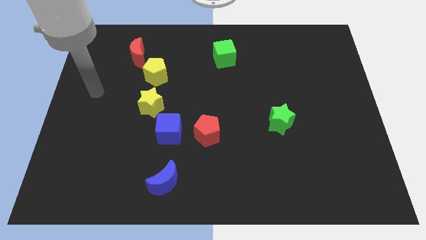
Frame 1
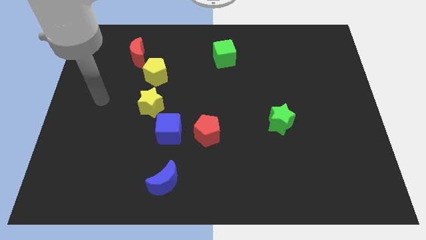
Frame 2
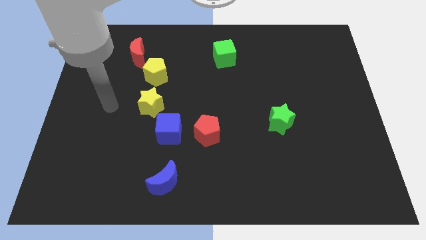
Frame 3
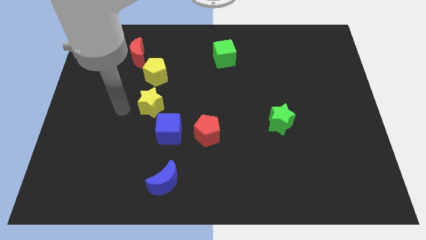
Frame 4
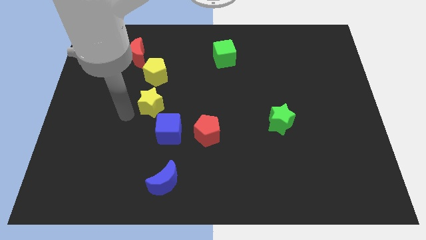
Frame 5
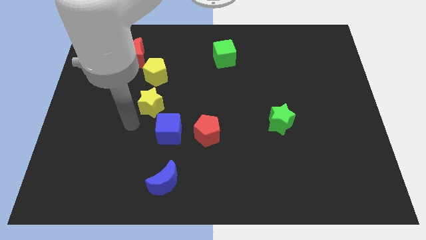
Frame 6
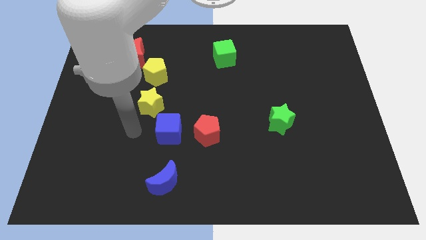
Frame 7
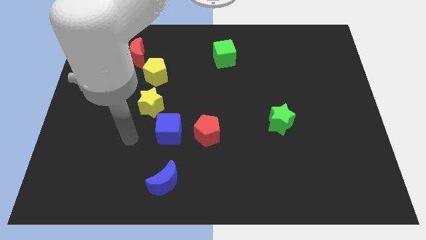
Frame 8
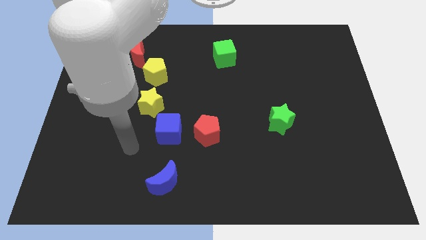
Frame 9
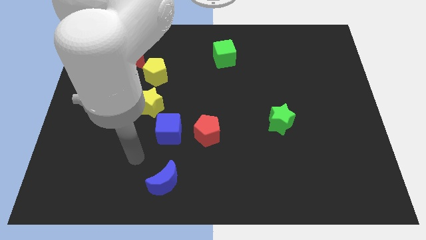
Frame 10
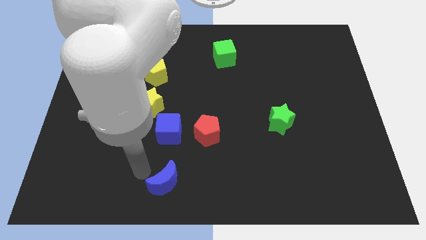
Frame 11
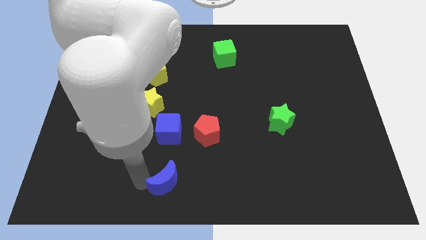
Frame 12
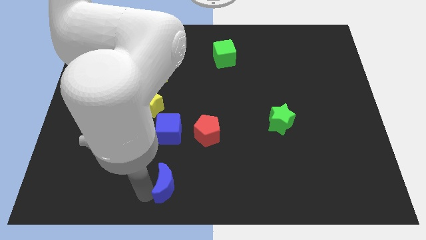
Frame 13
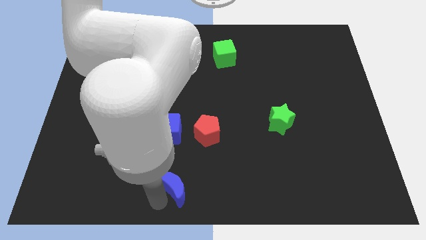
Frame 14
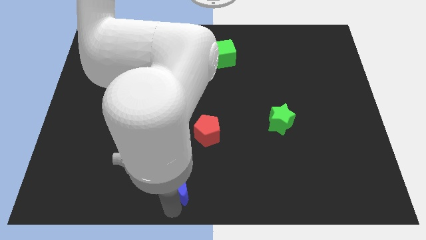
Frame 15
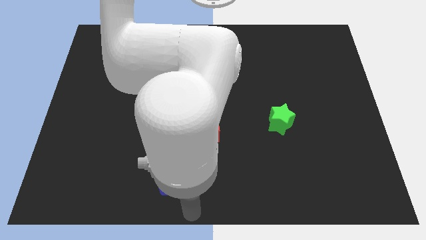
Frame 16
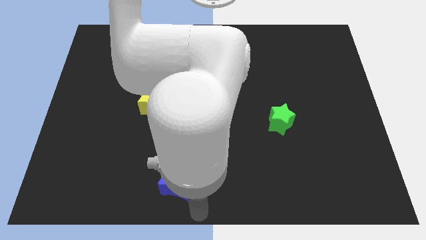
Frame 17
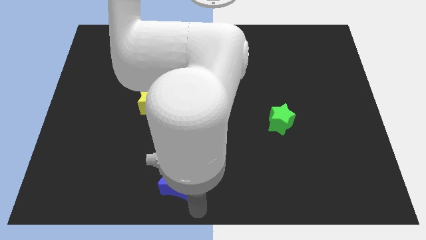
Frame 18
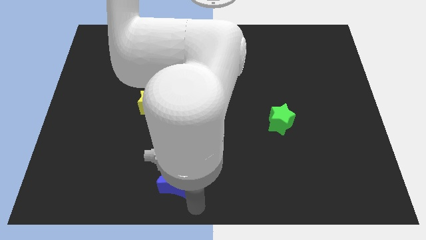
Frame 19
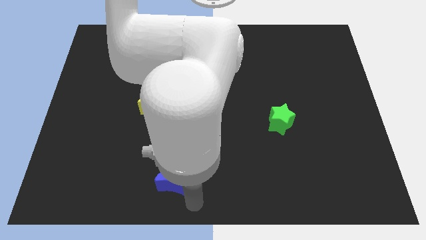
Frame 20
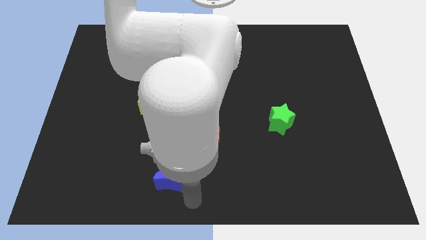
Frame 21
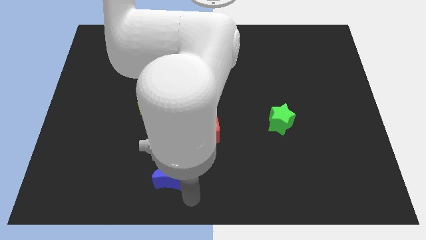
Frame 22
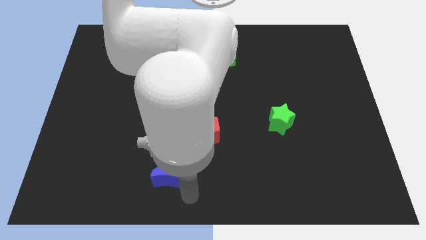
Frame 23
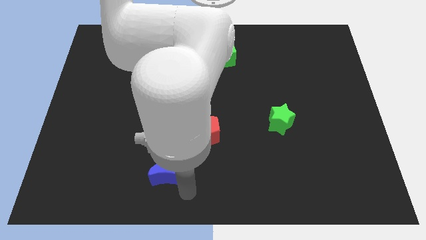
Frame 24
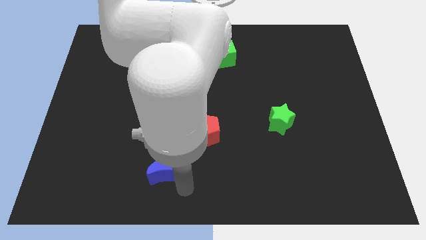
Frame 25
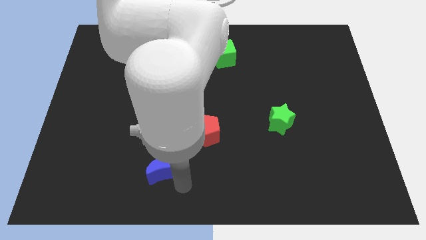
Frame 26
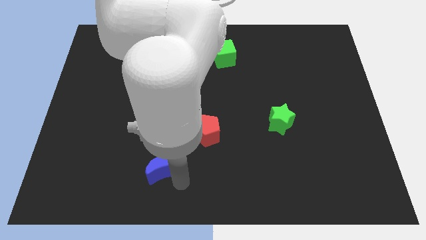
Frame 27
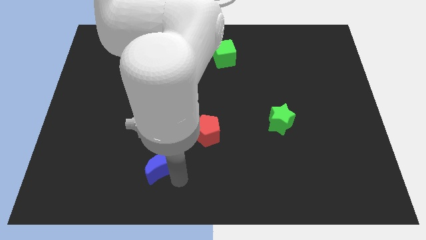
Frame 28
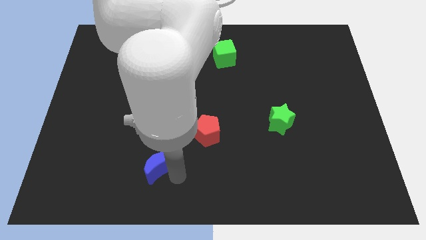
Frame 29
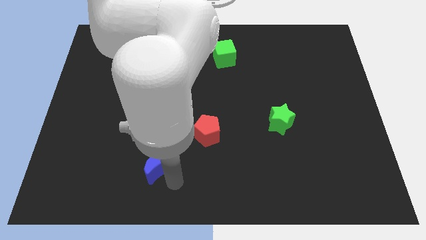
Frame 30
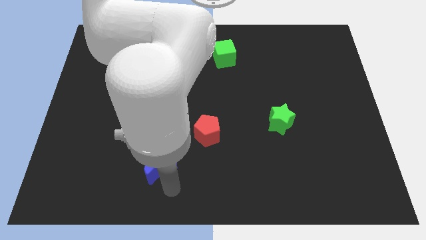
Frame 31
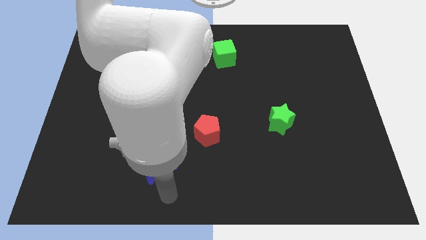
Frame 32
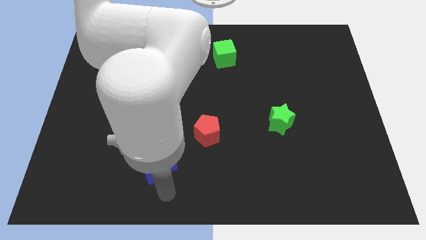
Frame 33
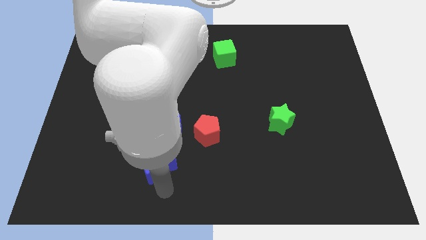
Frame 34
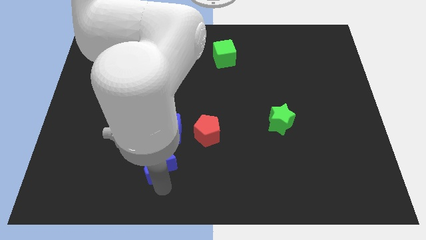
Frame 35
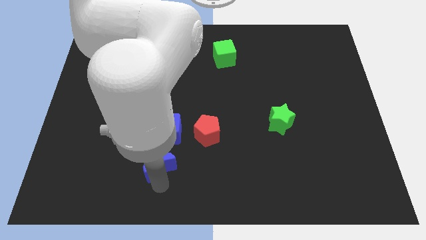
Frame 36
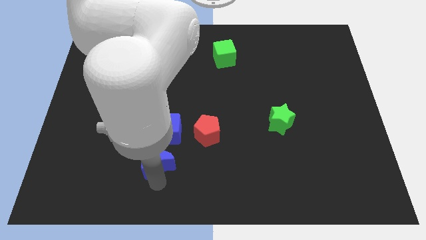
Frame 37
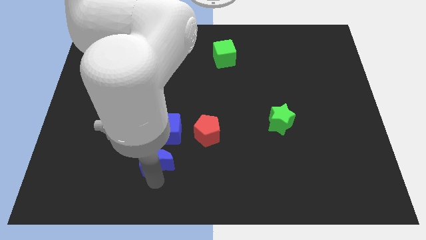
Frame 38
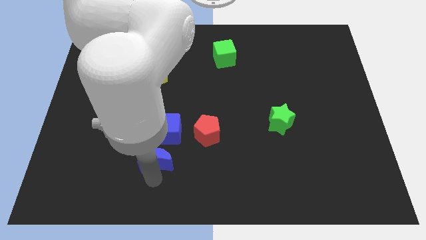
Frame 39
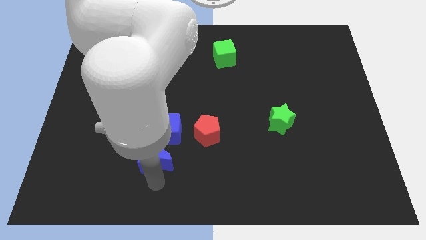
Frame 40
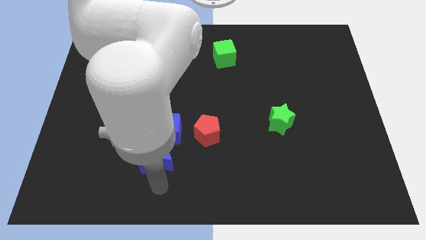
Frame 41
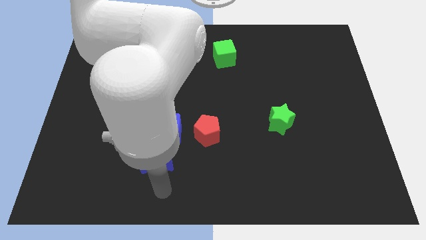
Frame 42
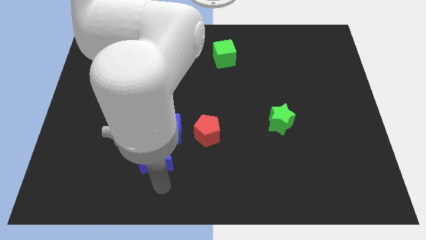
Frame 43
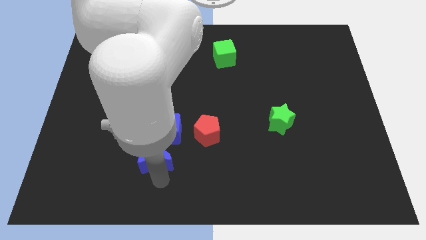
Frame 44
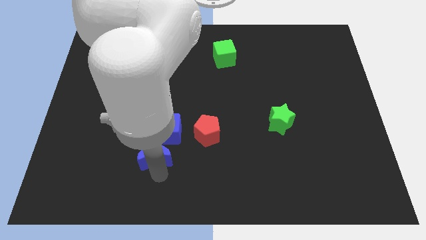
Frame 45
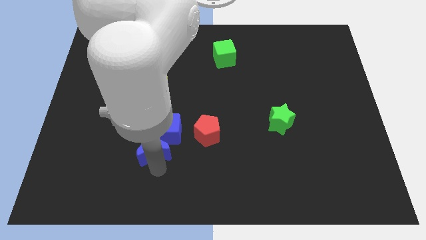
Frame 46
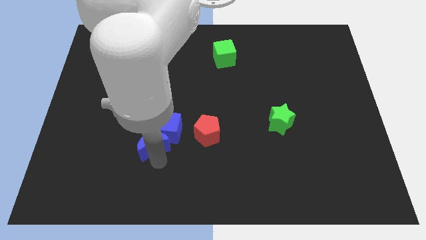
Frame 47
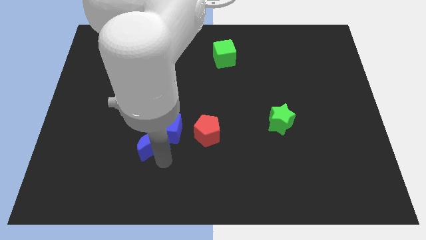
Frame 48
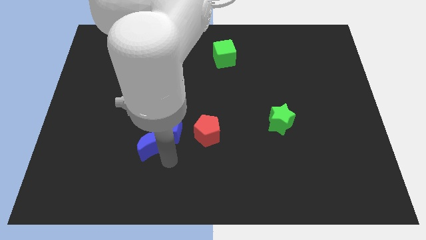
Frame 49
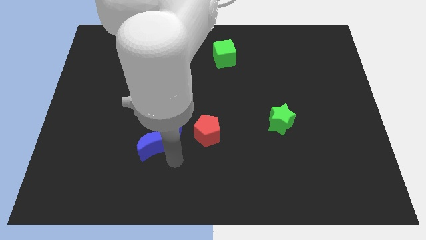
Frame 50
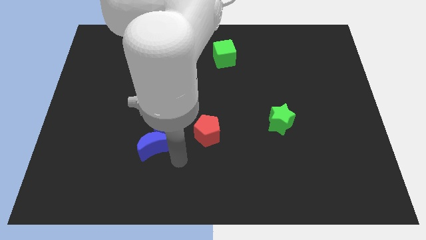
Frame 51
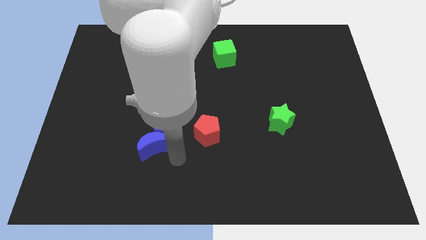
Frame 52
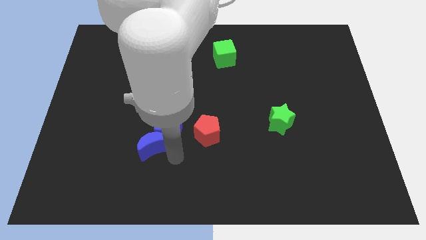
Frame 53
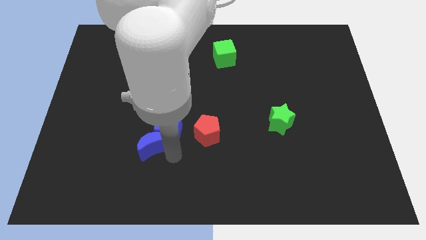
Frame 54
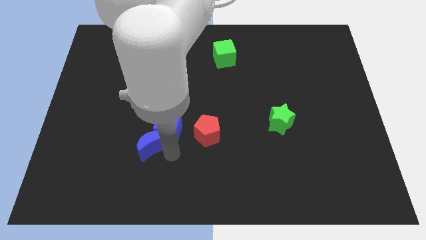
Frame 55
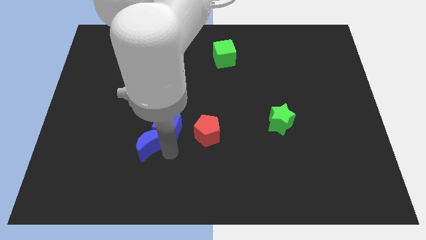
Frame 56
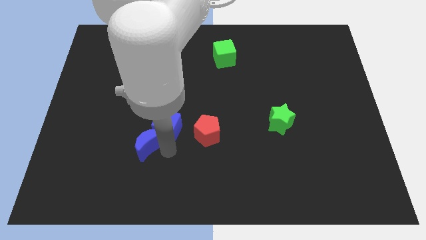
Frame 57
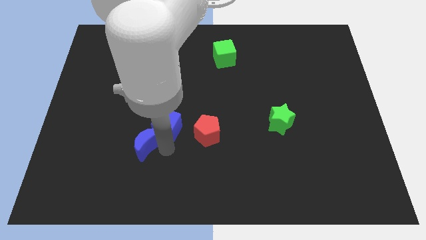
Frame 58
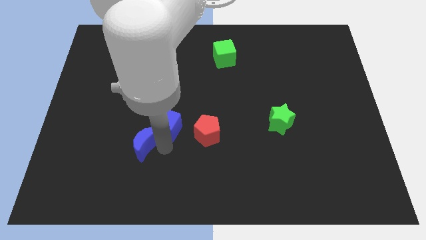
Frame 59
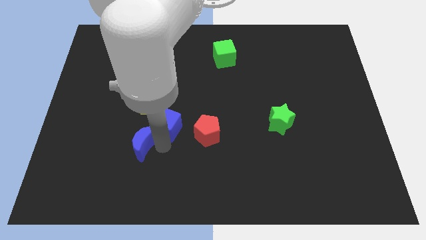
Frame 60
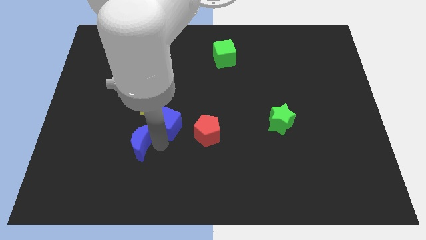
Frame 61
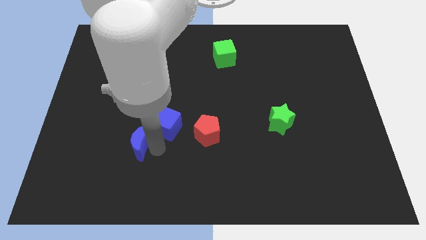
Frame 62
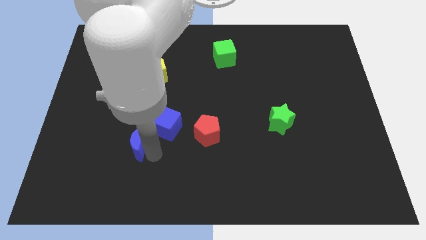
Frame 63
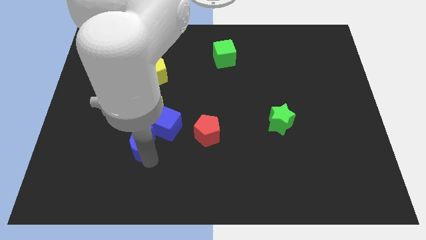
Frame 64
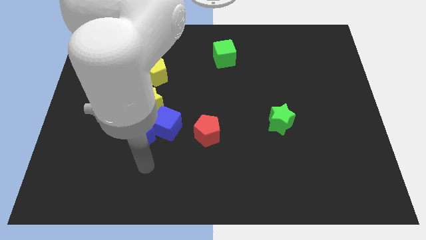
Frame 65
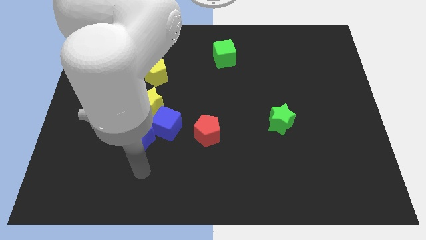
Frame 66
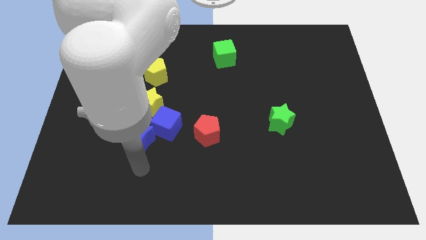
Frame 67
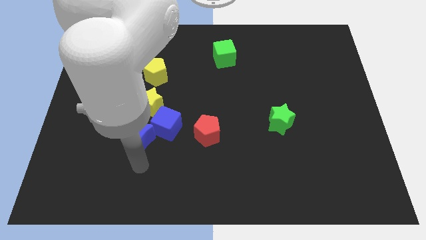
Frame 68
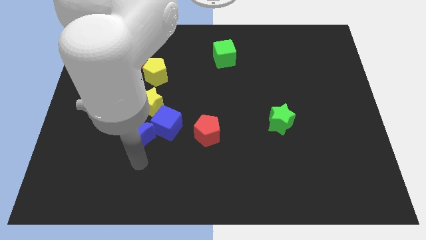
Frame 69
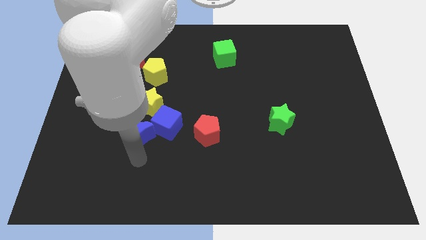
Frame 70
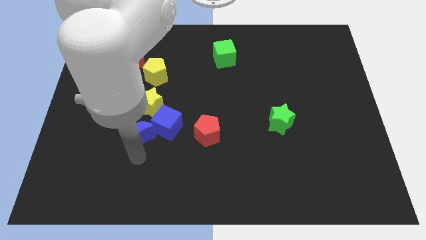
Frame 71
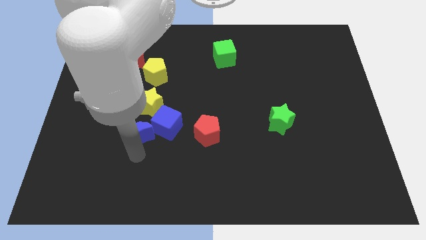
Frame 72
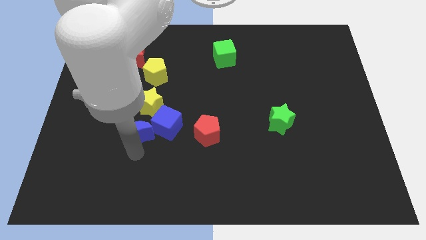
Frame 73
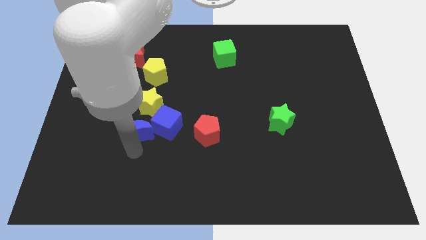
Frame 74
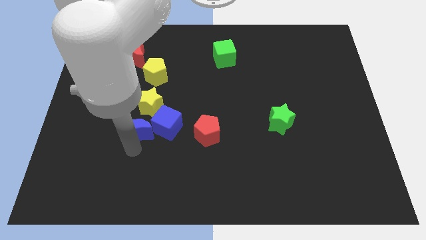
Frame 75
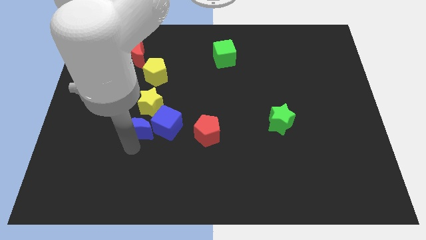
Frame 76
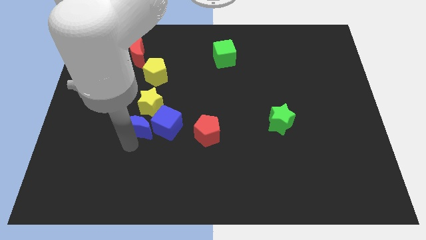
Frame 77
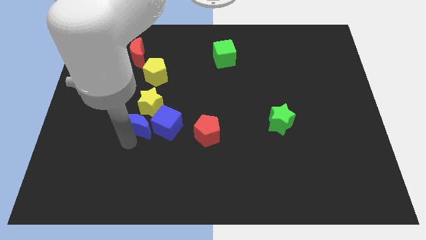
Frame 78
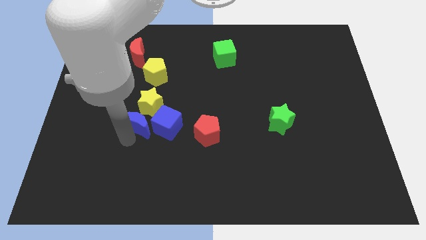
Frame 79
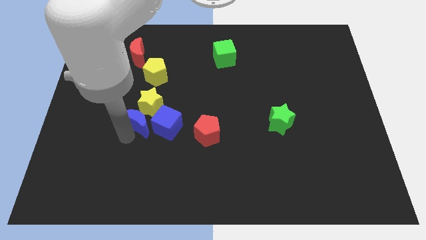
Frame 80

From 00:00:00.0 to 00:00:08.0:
move the blue moon to the yellow star
